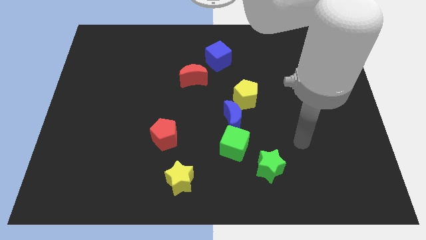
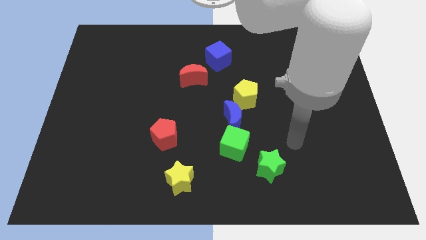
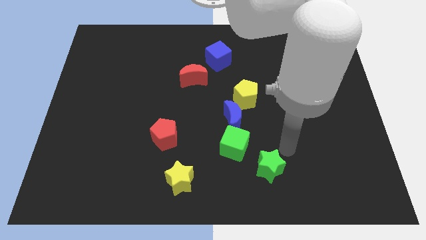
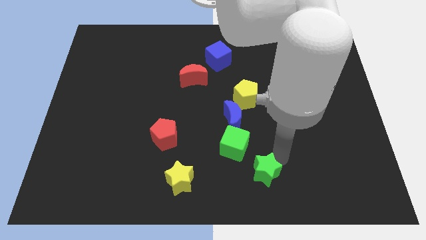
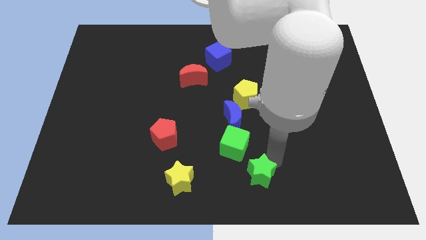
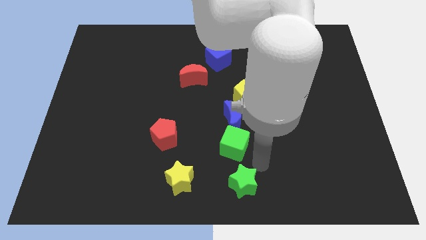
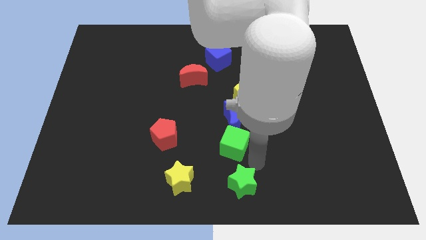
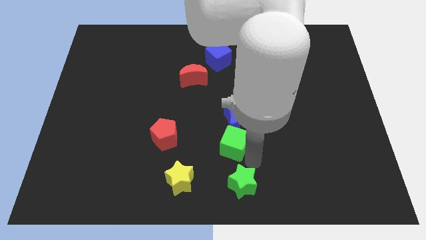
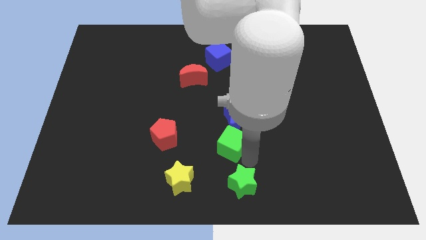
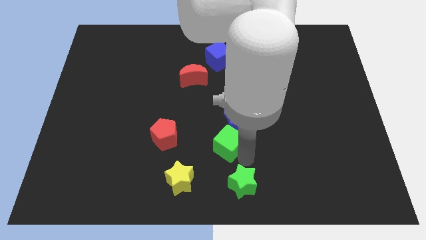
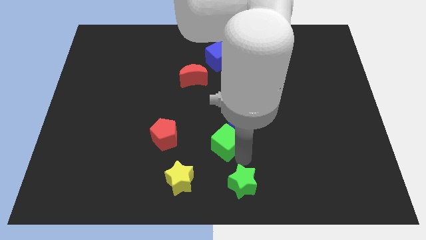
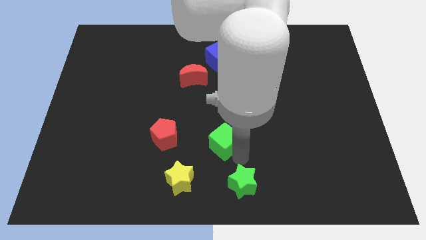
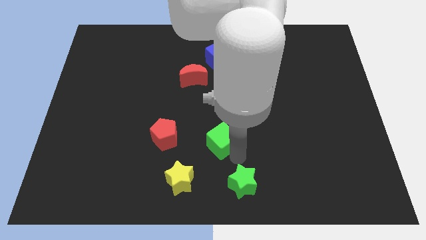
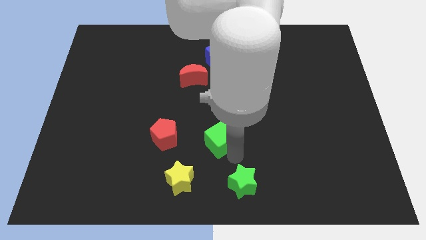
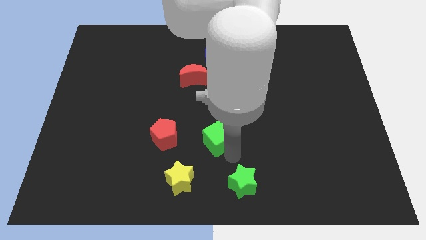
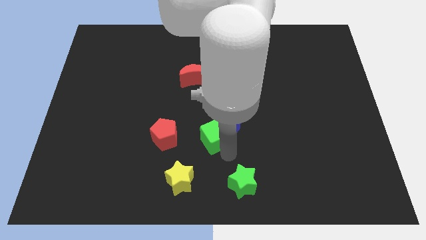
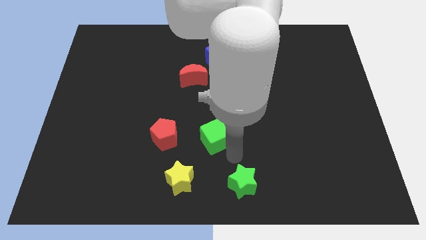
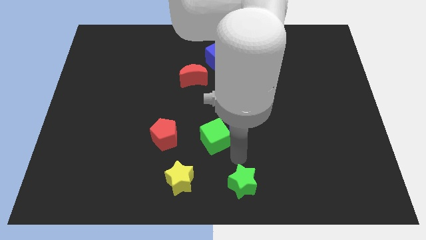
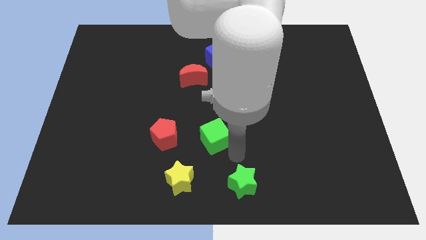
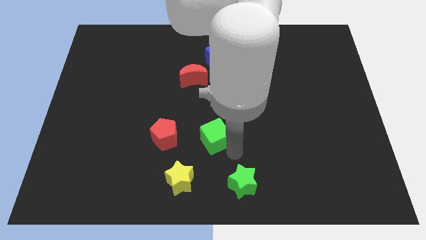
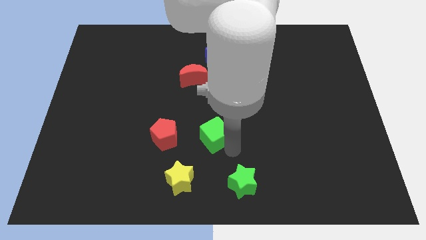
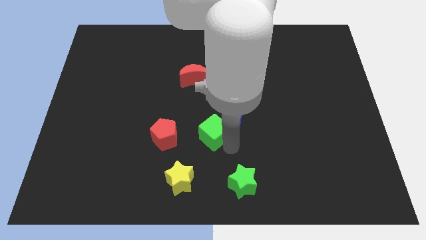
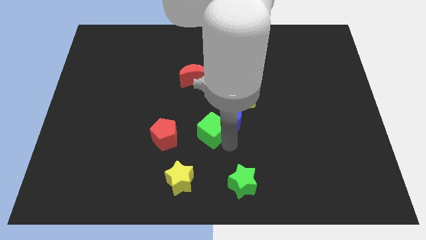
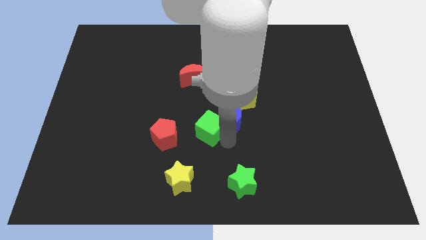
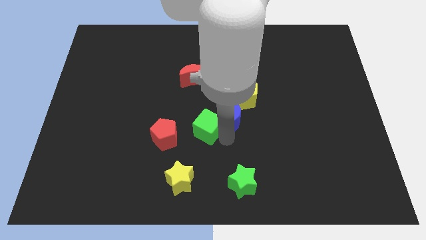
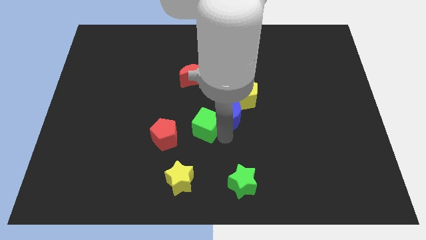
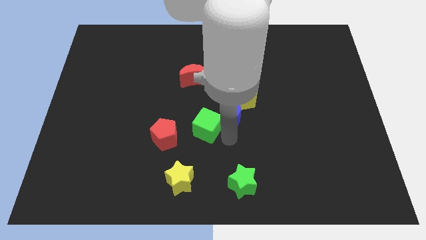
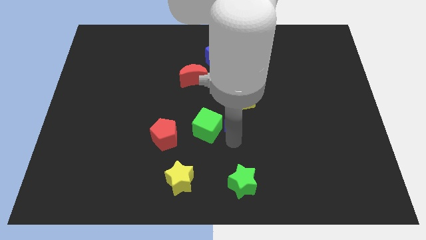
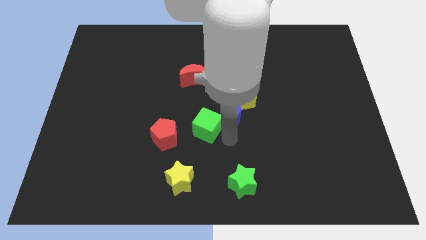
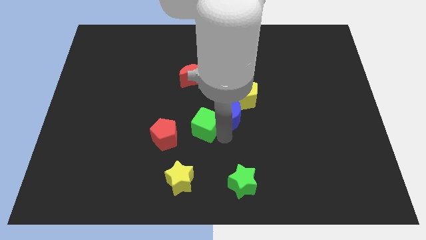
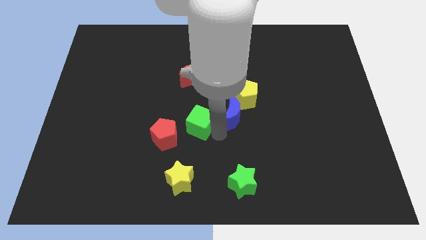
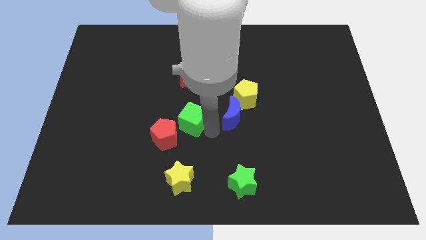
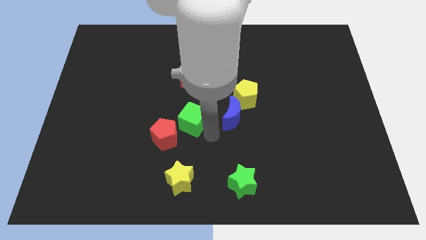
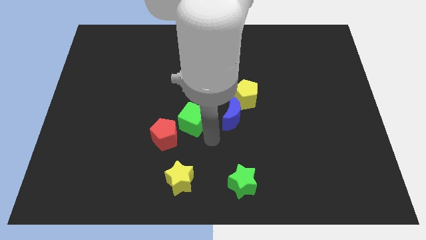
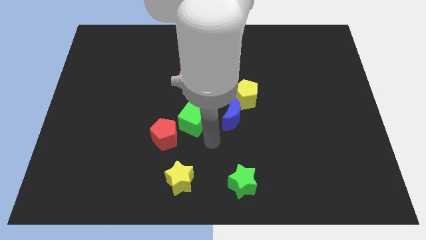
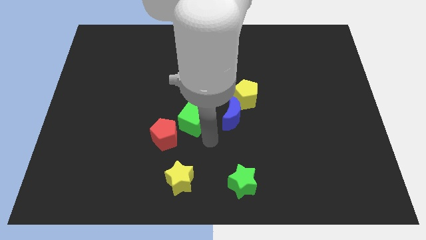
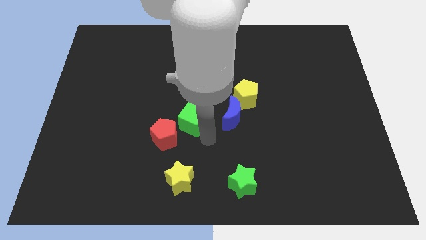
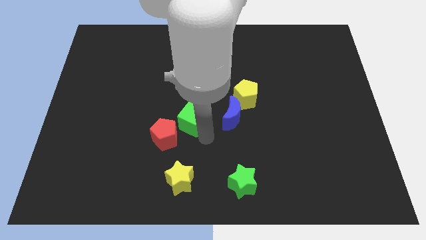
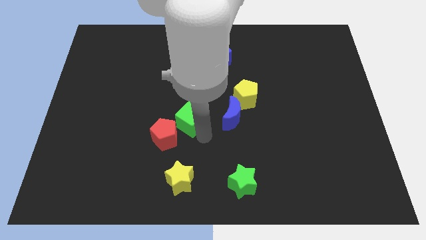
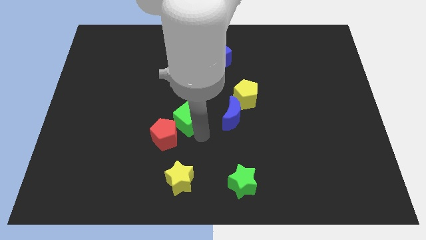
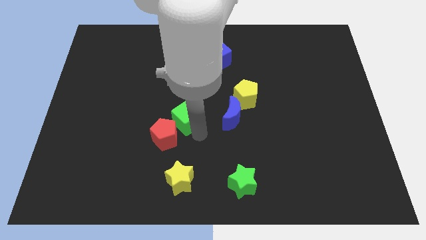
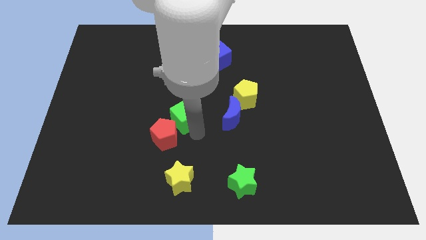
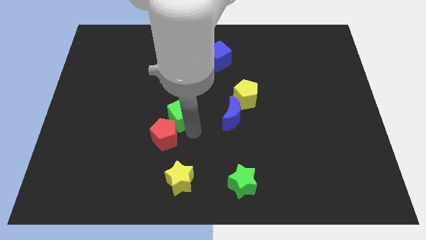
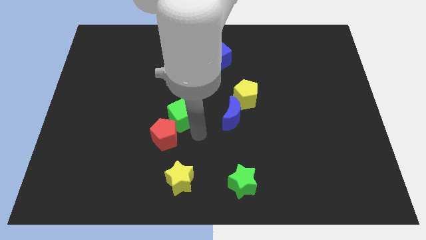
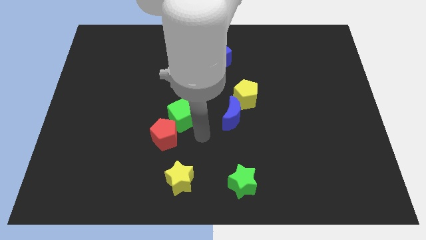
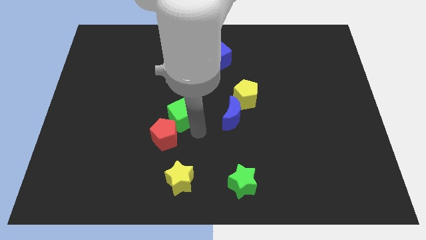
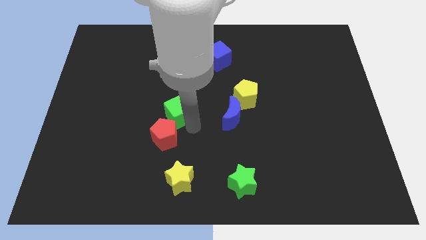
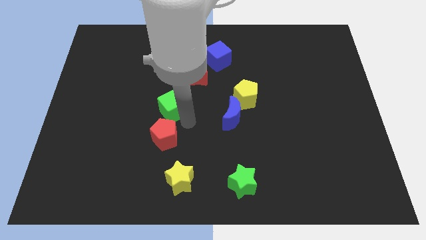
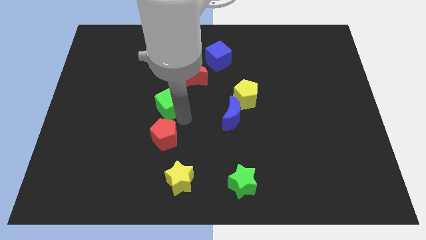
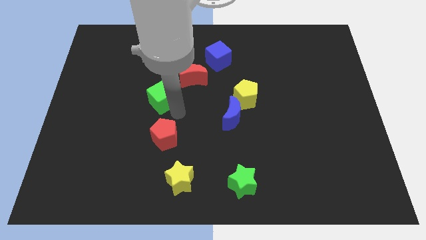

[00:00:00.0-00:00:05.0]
push the green cube upwards and to the left

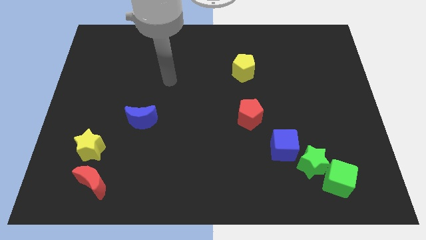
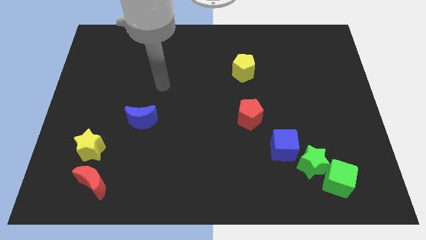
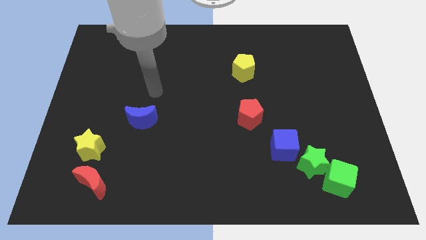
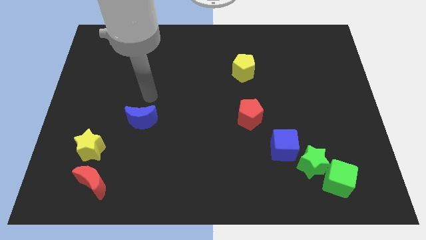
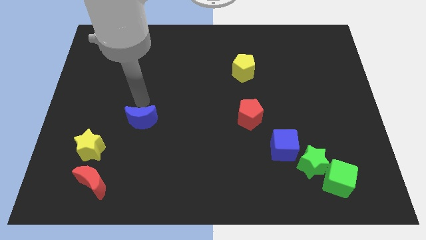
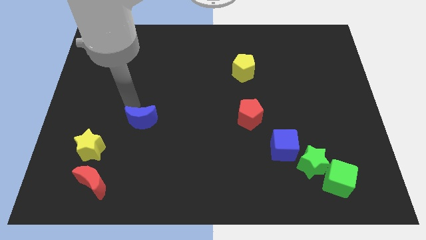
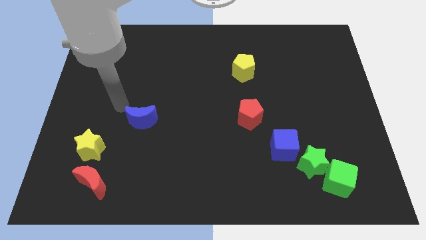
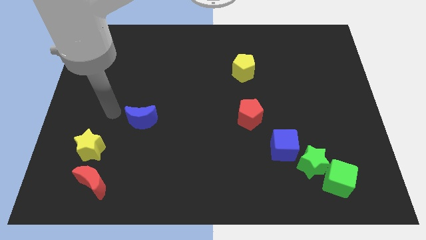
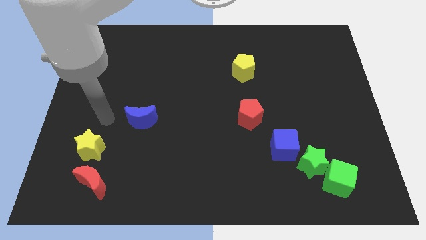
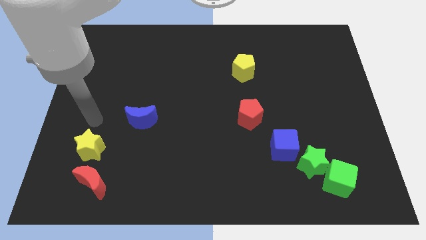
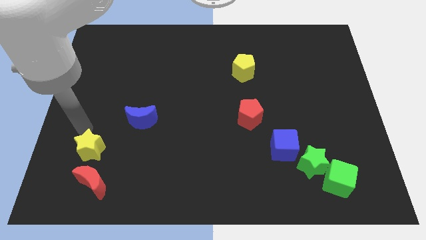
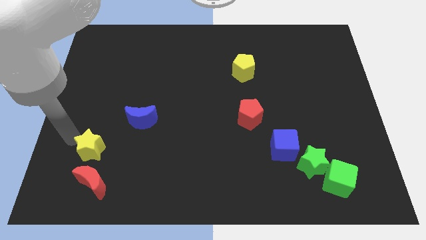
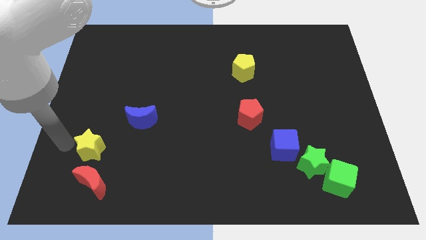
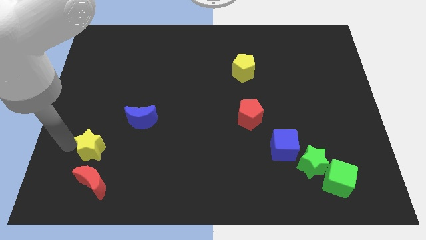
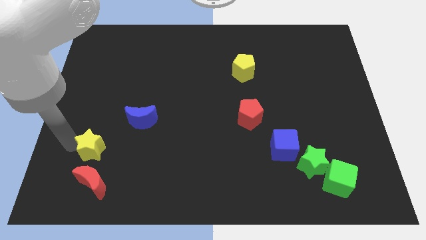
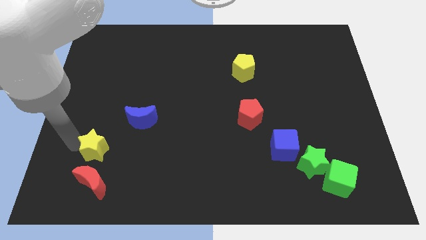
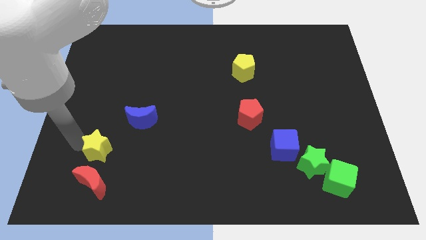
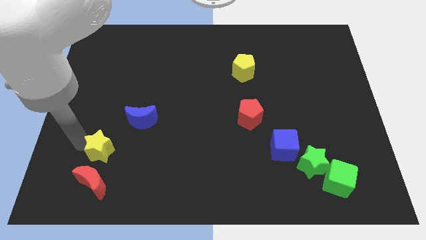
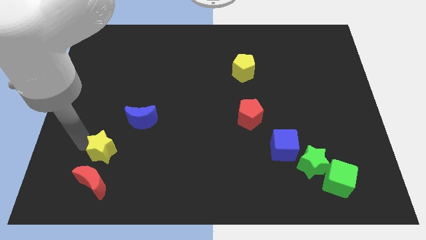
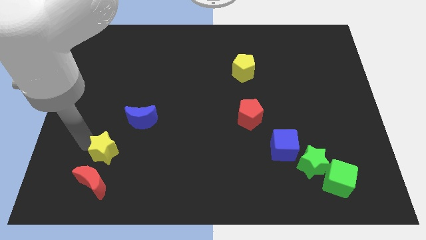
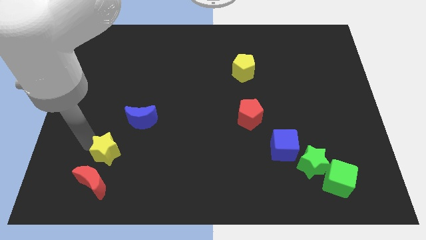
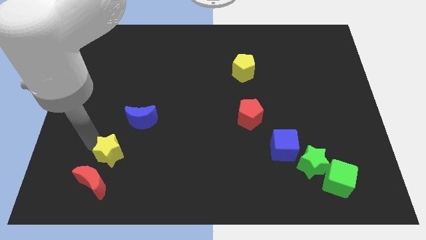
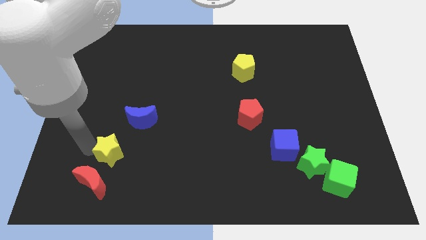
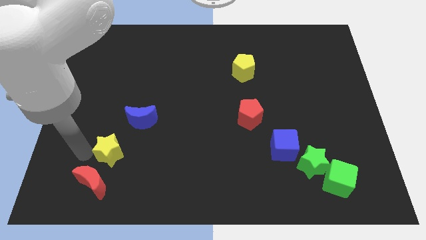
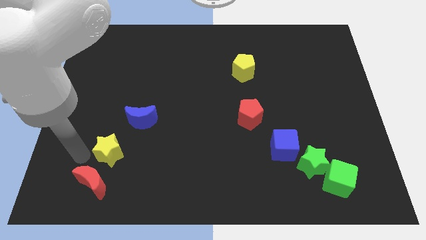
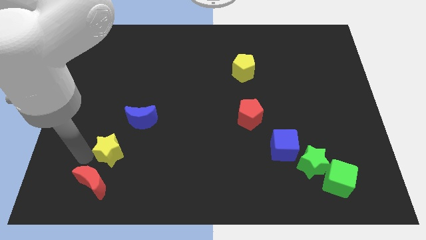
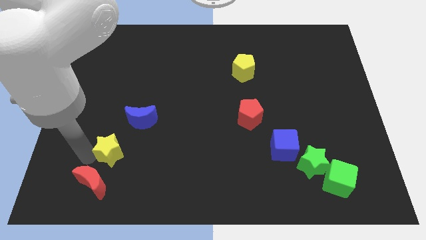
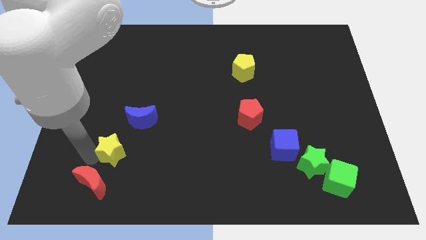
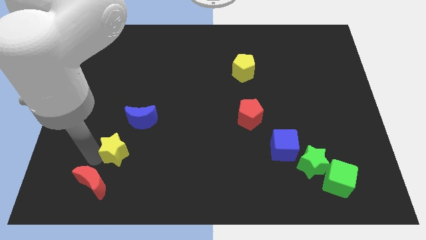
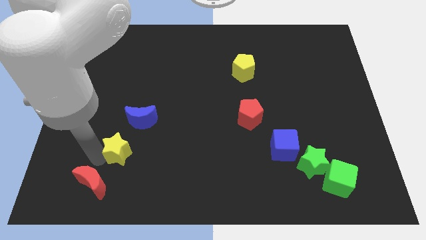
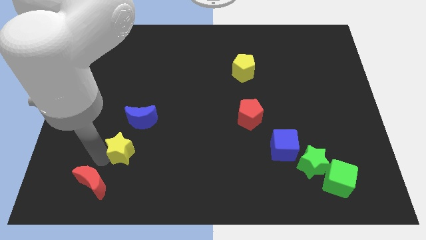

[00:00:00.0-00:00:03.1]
slightly move the yellow star right

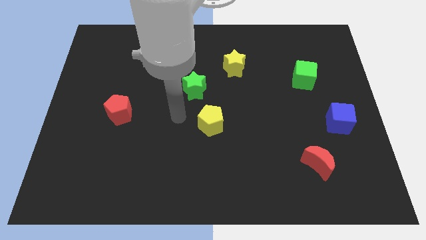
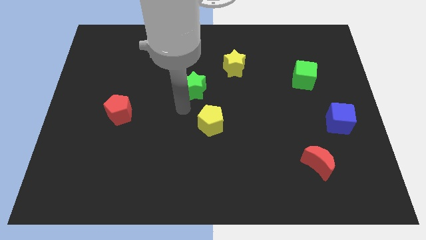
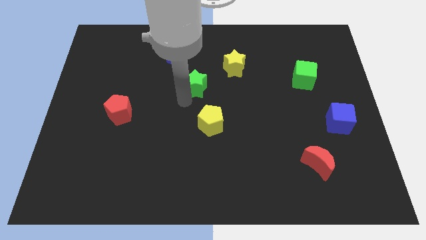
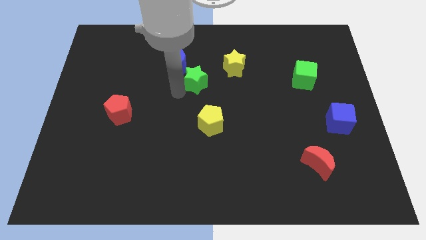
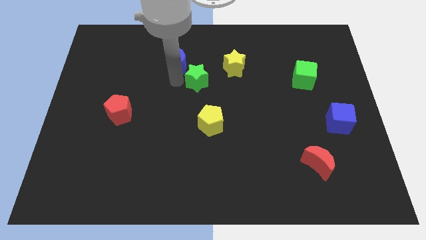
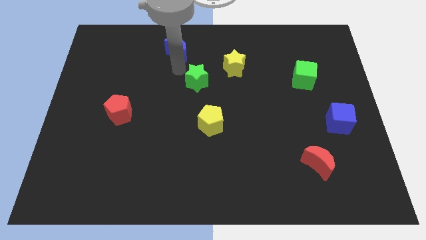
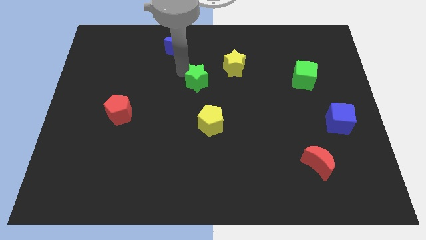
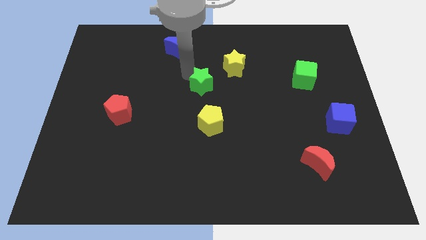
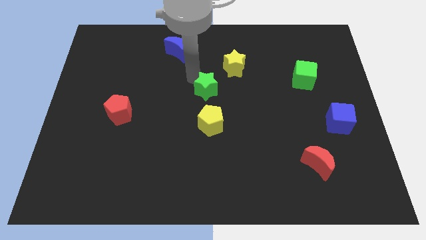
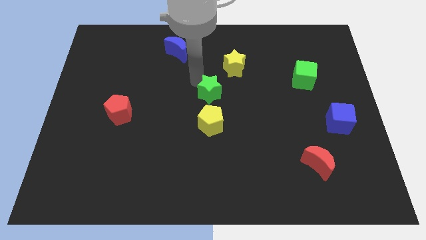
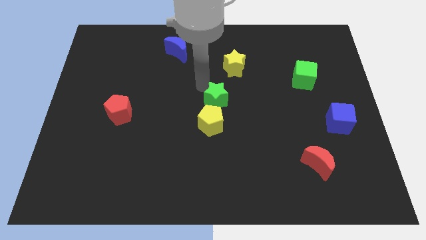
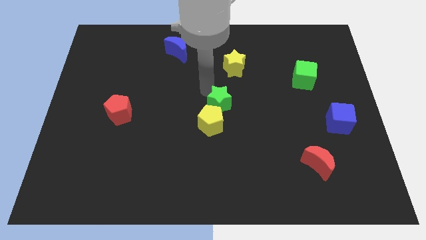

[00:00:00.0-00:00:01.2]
move the green star slightly diagonally downwards and to the right
